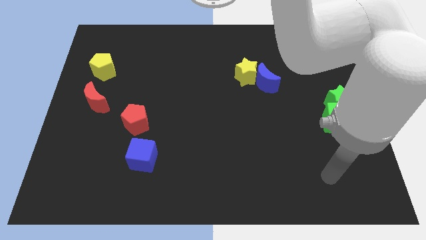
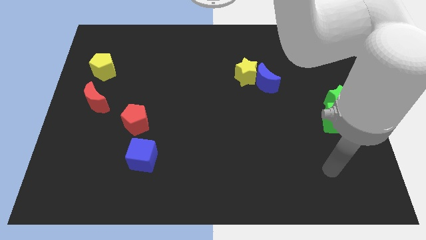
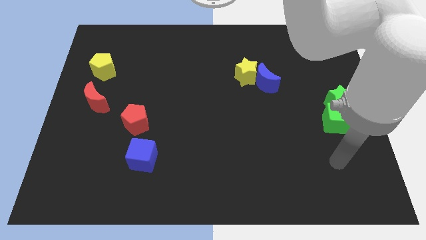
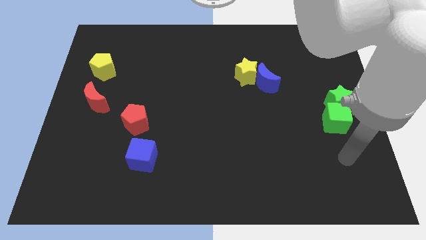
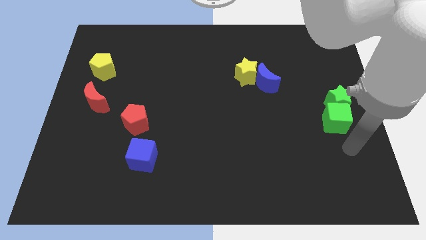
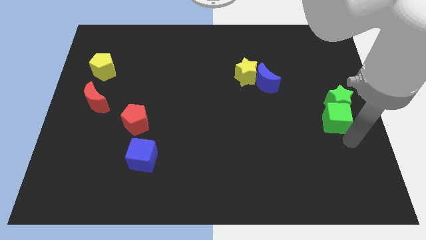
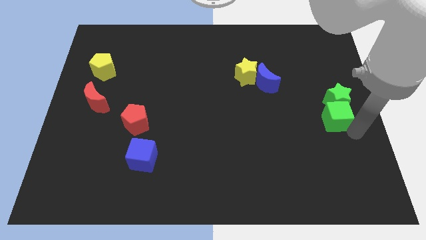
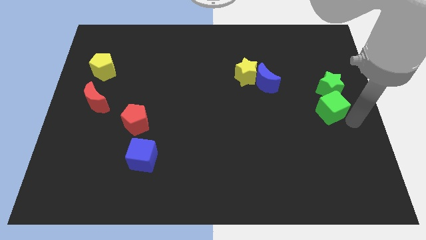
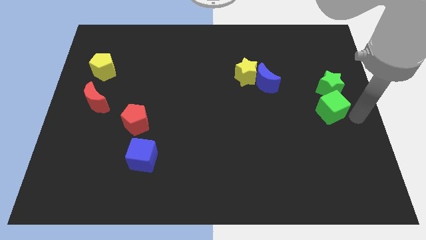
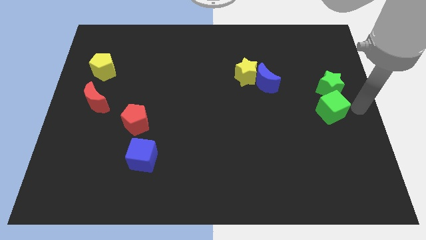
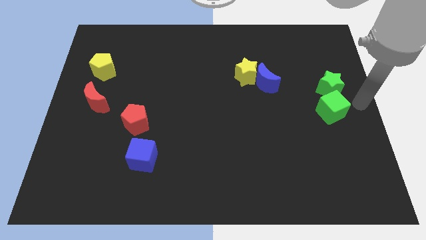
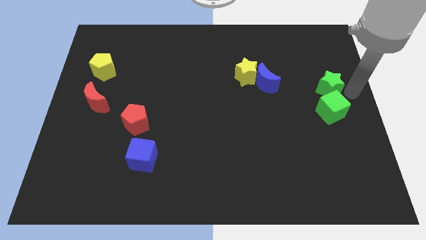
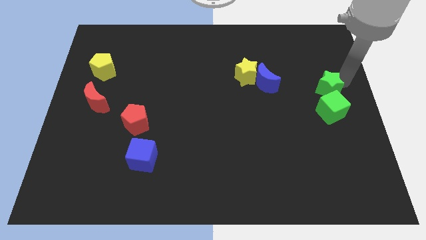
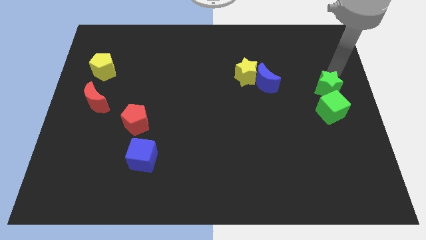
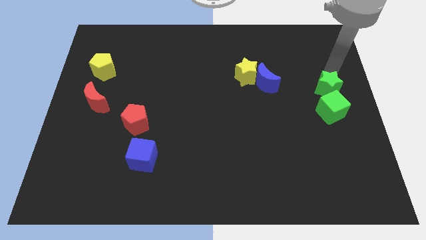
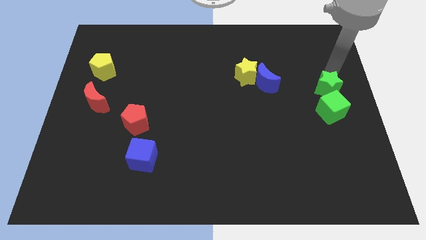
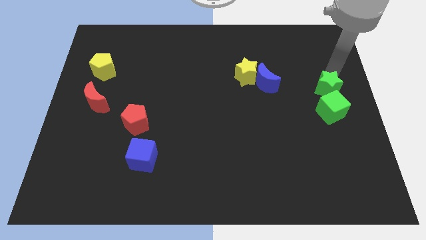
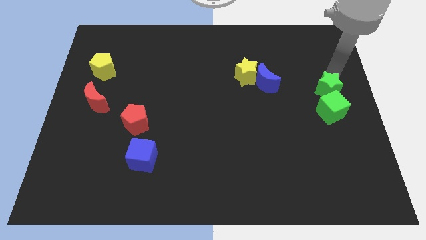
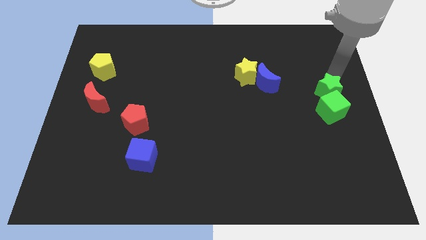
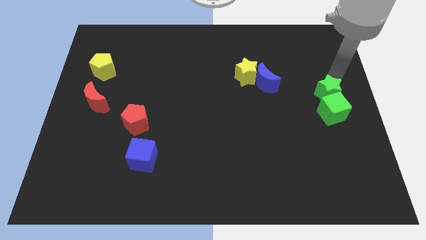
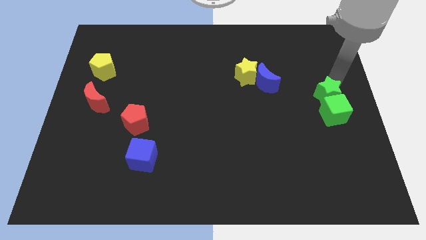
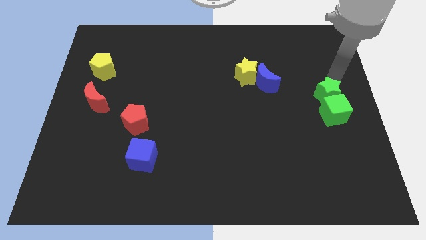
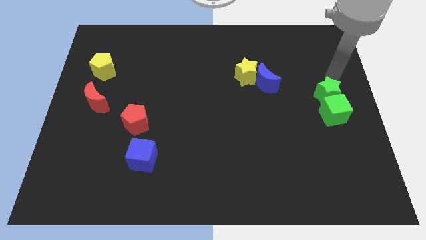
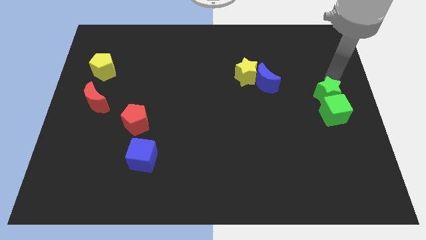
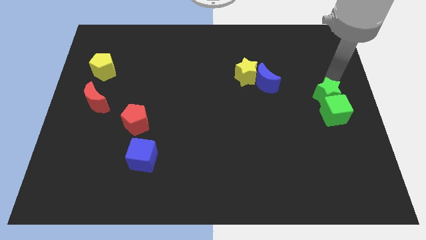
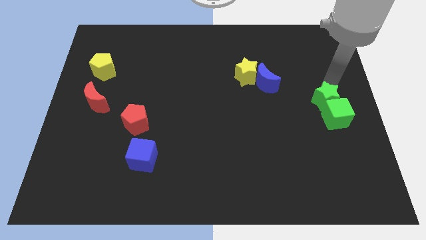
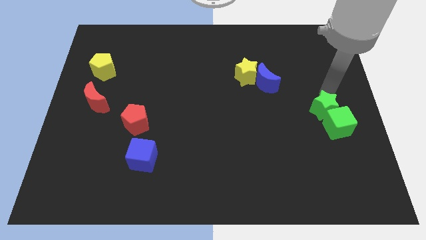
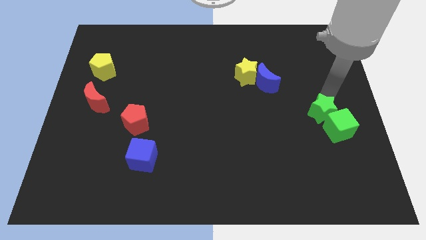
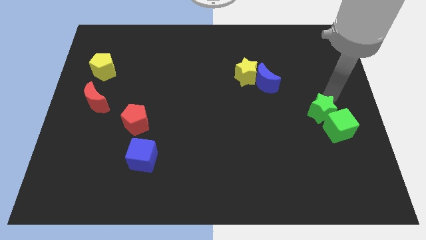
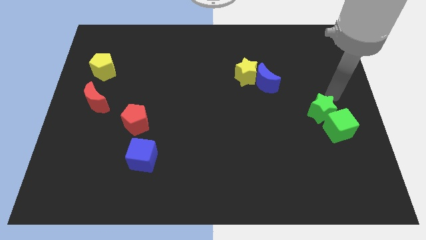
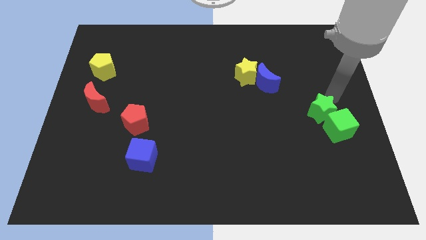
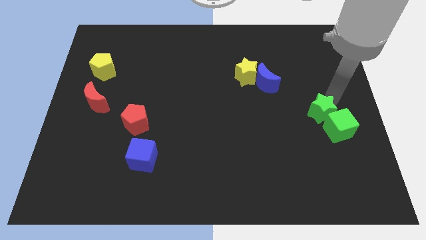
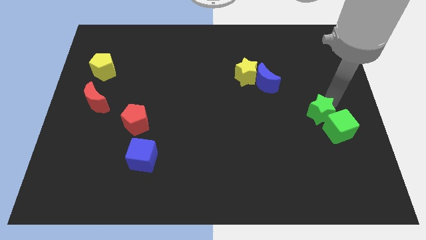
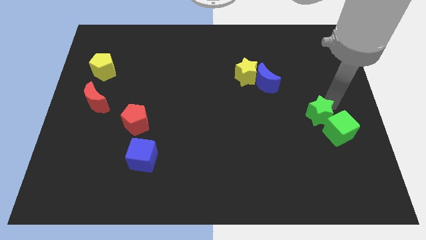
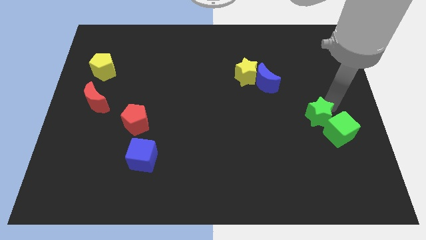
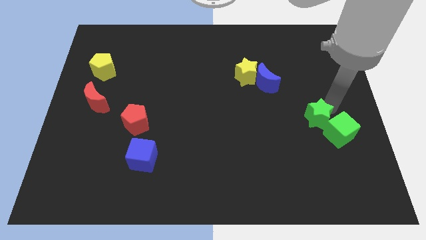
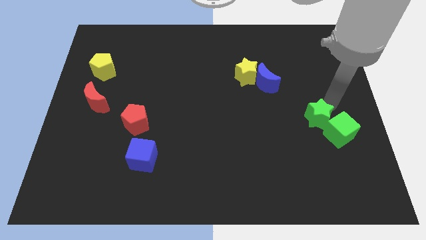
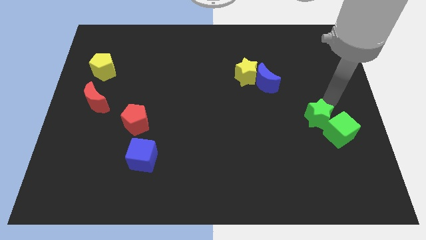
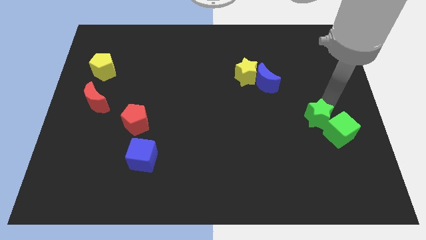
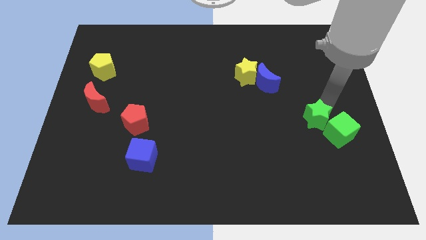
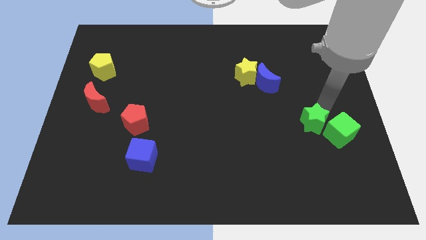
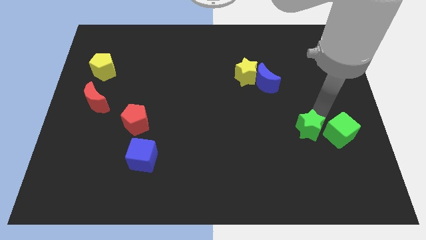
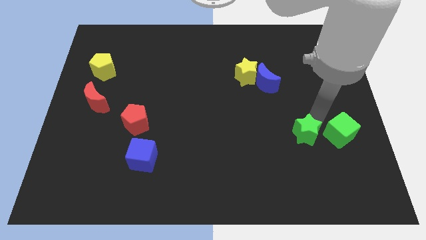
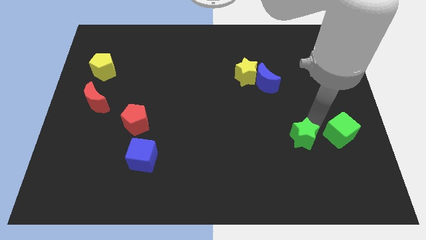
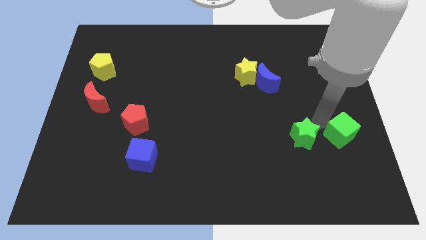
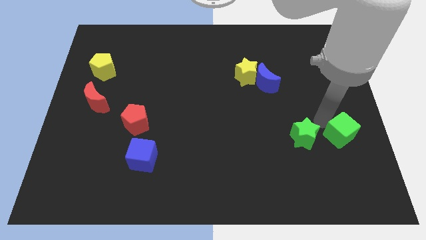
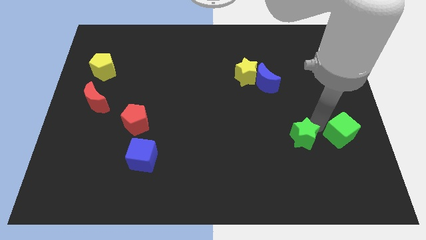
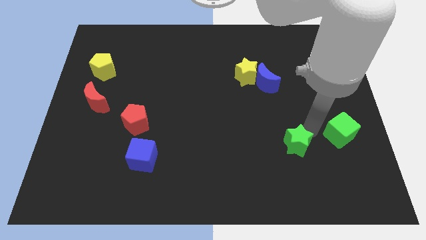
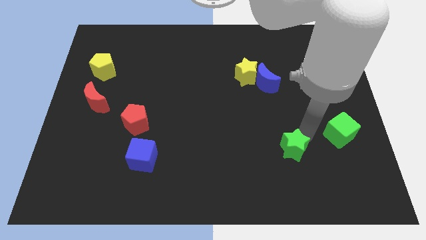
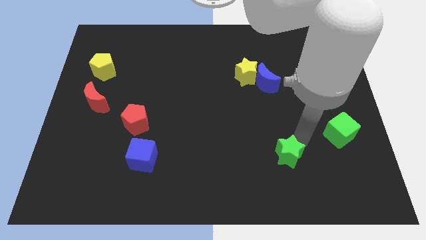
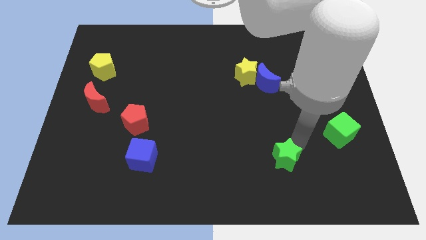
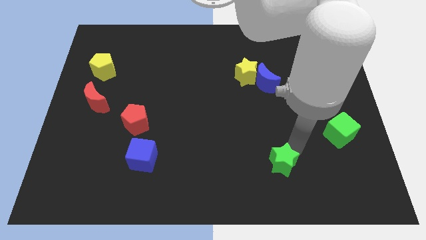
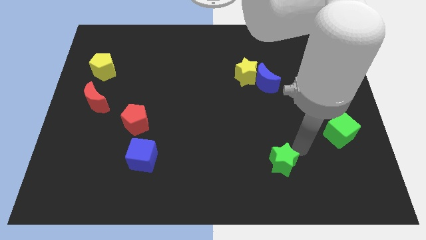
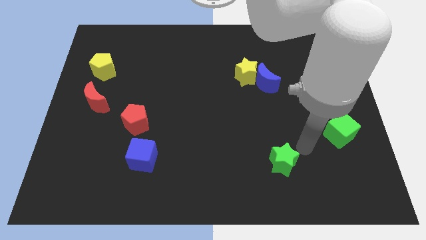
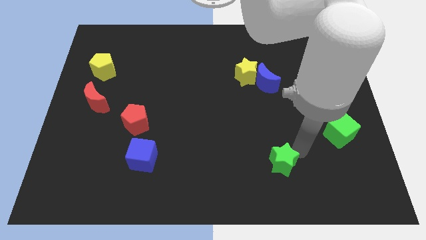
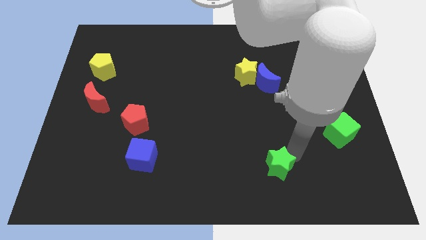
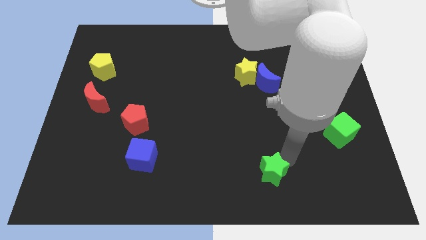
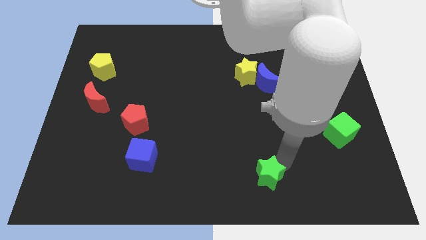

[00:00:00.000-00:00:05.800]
put the green star to the bottom side
